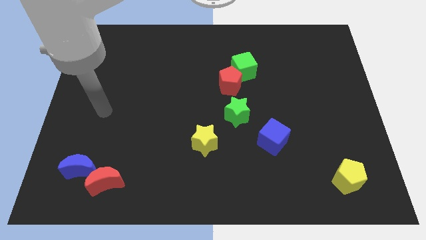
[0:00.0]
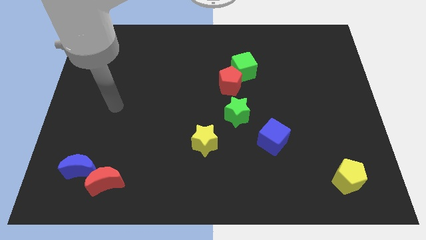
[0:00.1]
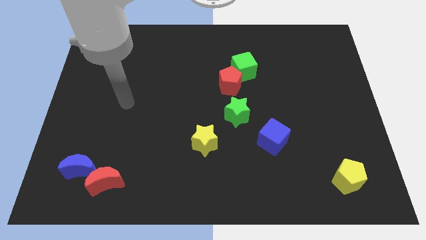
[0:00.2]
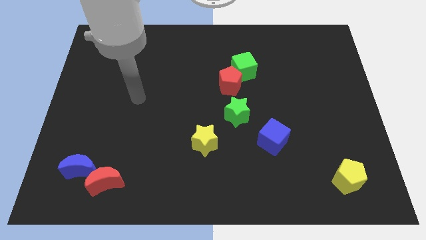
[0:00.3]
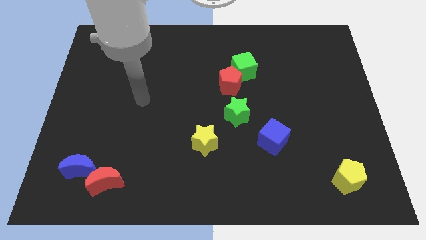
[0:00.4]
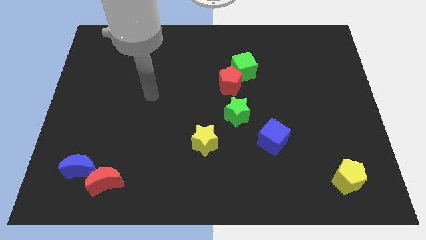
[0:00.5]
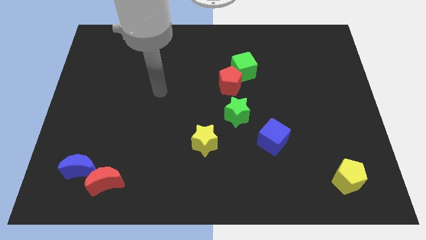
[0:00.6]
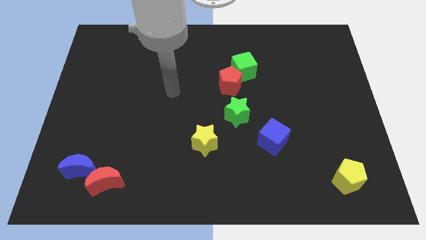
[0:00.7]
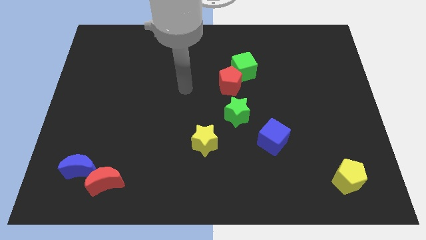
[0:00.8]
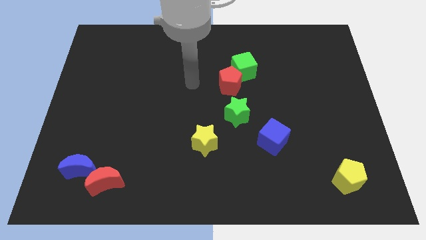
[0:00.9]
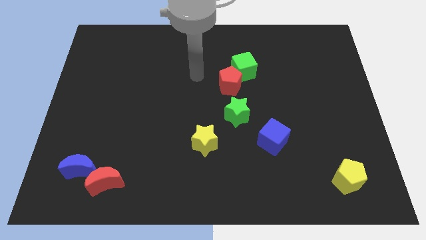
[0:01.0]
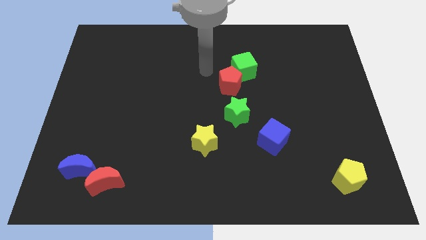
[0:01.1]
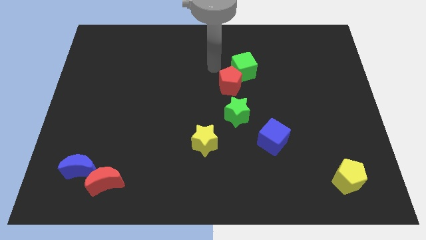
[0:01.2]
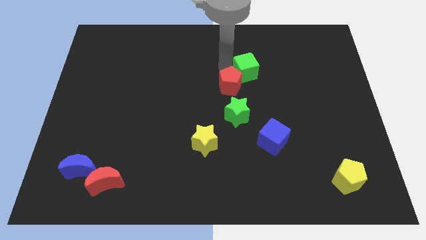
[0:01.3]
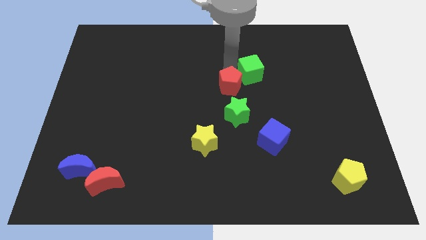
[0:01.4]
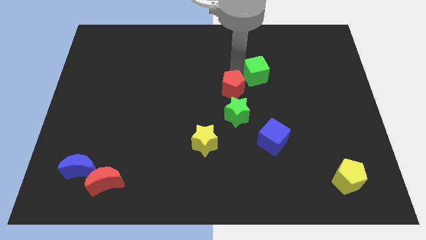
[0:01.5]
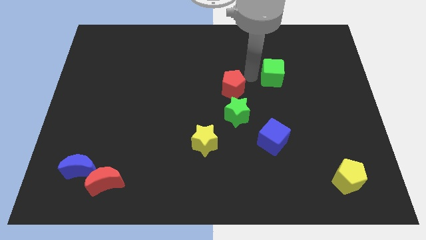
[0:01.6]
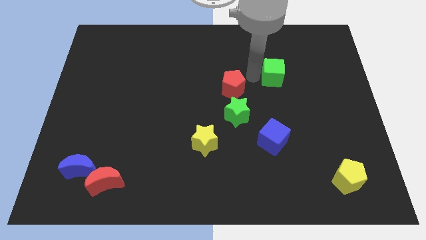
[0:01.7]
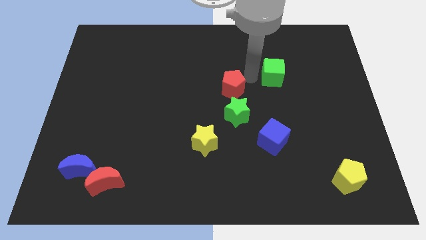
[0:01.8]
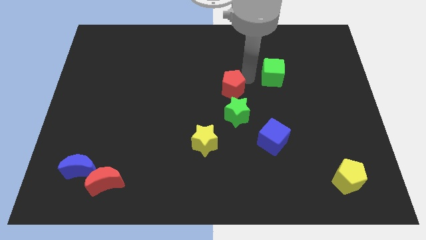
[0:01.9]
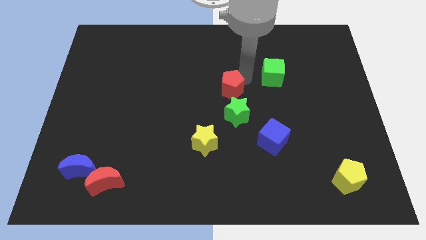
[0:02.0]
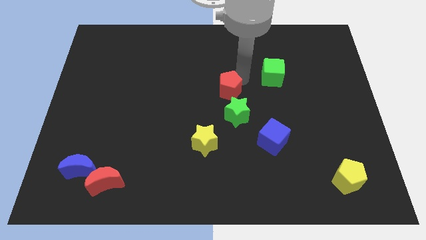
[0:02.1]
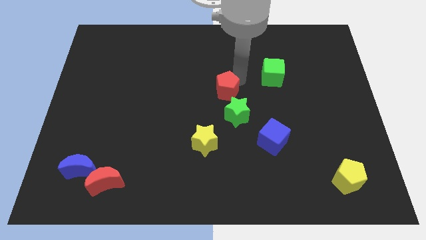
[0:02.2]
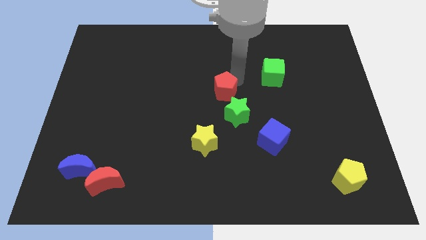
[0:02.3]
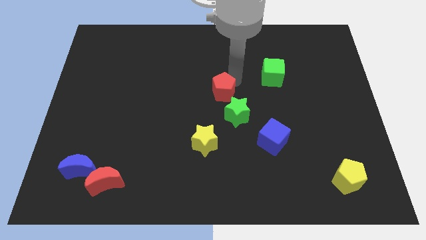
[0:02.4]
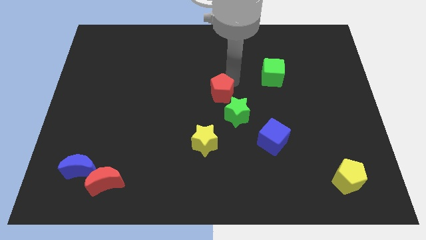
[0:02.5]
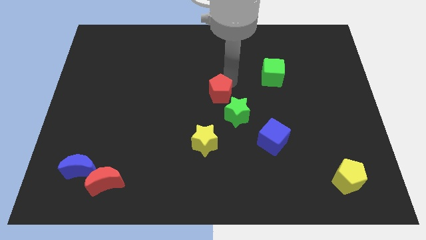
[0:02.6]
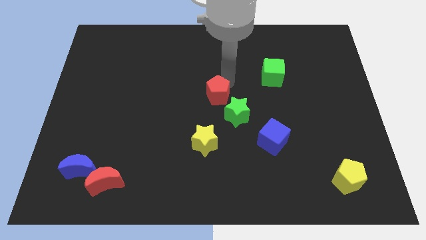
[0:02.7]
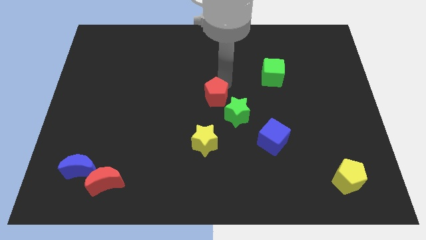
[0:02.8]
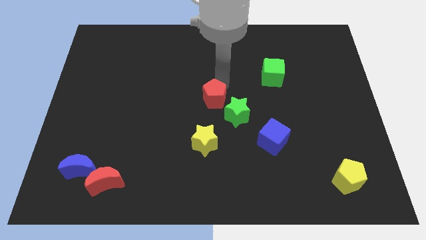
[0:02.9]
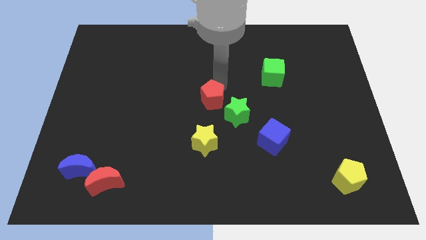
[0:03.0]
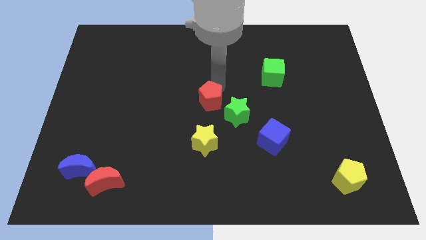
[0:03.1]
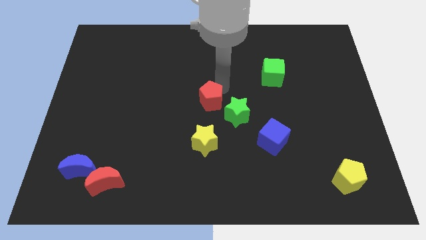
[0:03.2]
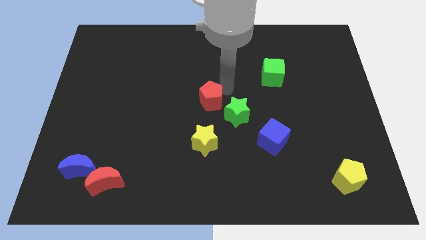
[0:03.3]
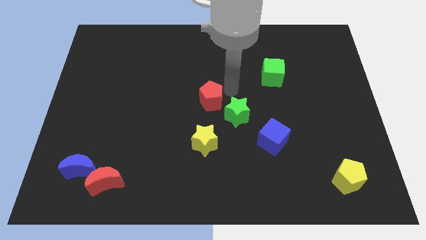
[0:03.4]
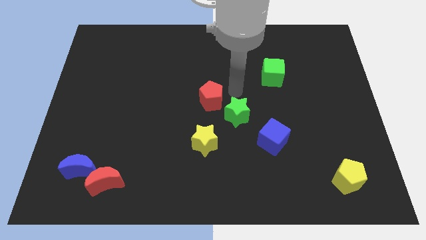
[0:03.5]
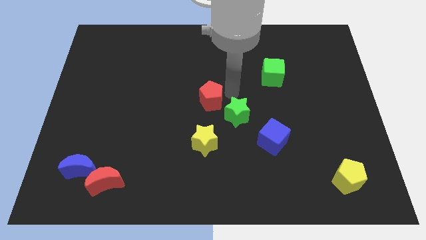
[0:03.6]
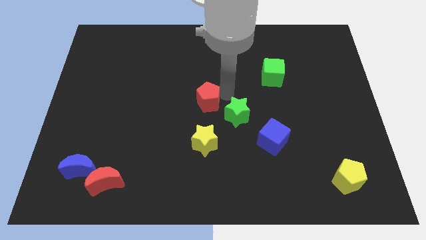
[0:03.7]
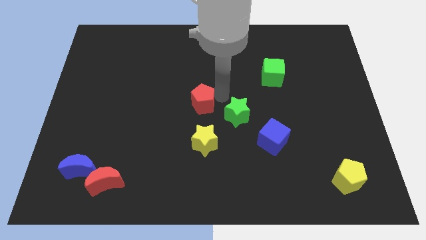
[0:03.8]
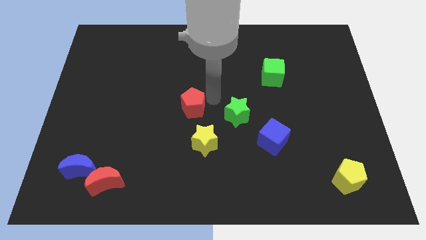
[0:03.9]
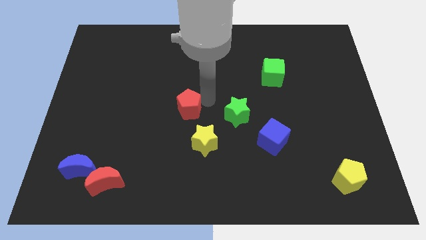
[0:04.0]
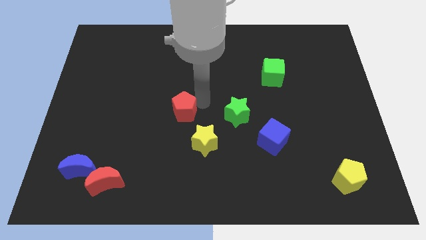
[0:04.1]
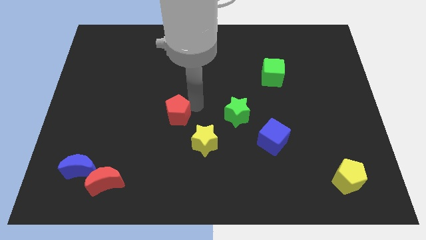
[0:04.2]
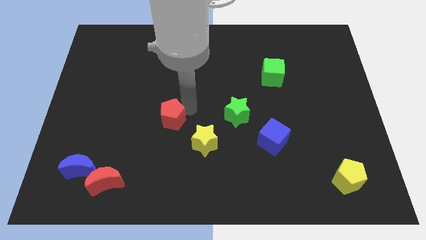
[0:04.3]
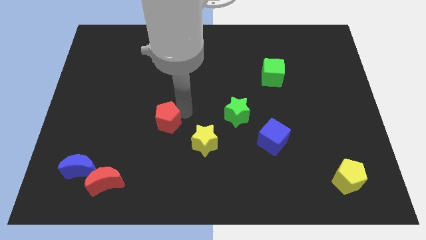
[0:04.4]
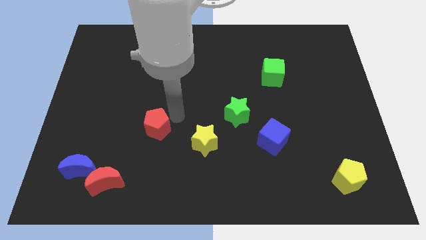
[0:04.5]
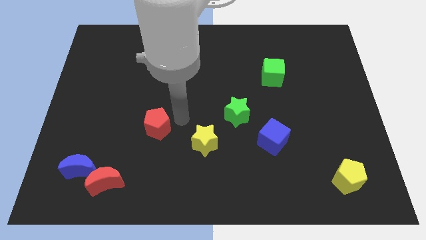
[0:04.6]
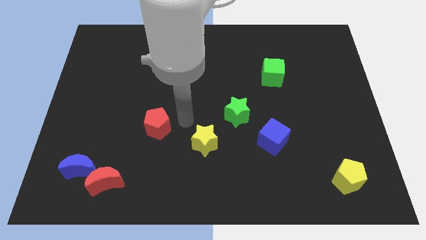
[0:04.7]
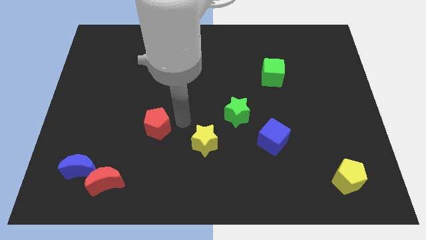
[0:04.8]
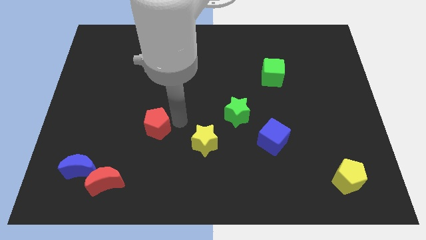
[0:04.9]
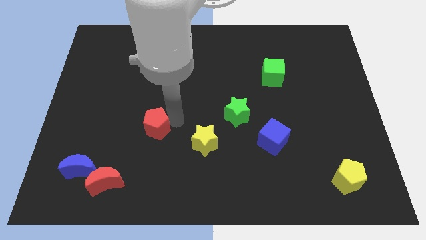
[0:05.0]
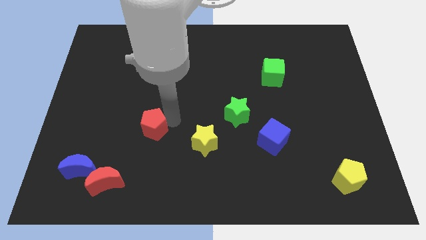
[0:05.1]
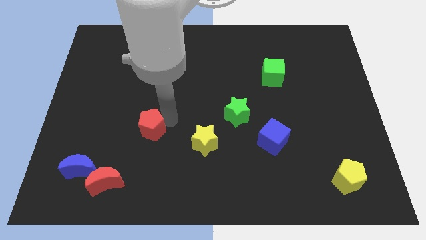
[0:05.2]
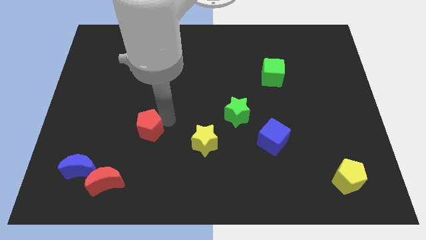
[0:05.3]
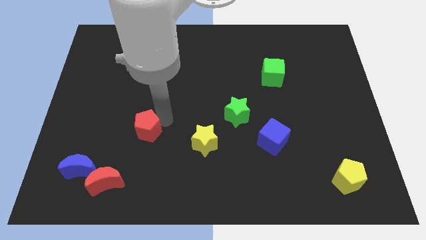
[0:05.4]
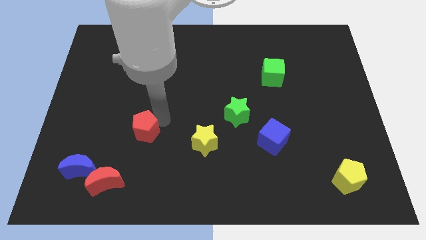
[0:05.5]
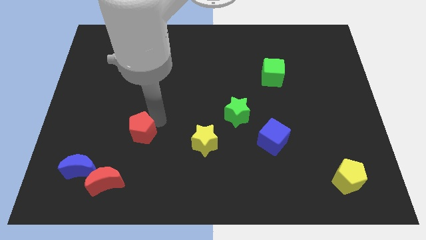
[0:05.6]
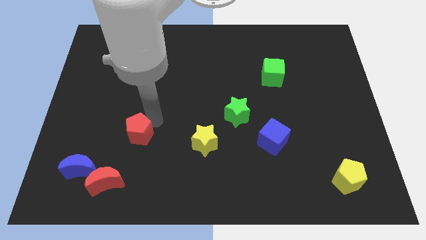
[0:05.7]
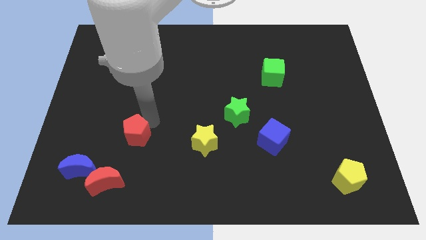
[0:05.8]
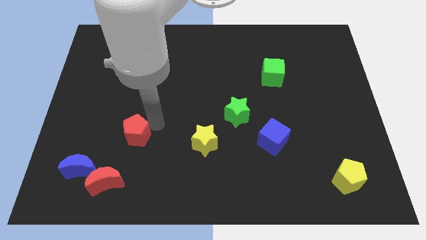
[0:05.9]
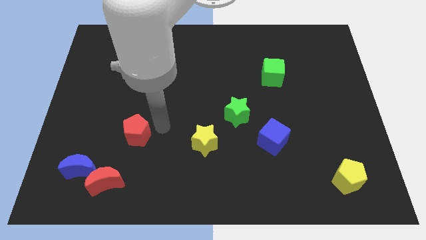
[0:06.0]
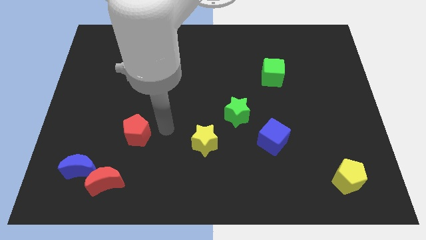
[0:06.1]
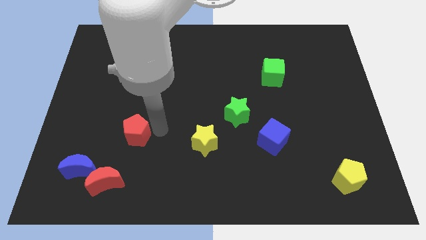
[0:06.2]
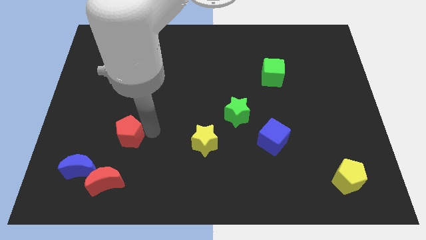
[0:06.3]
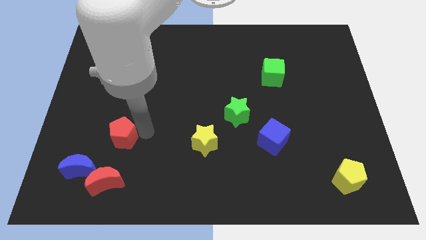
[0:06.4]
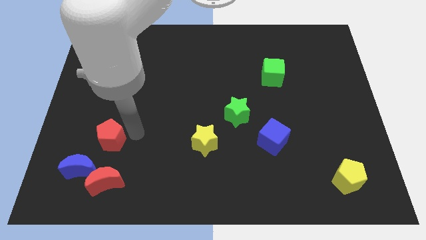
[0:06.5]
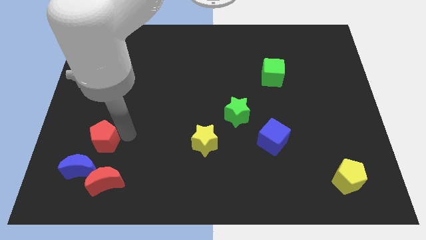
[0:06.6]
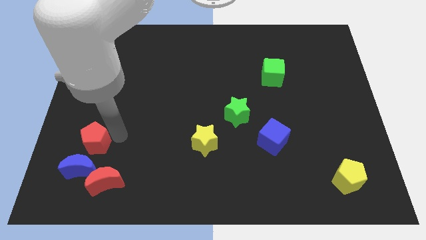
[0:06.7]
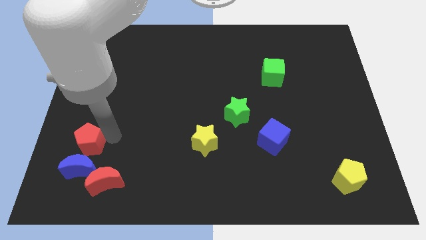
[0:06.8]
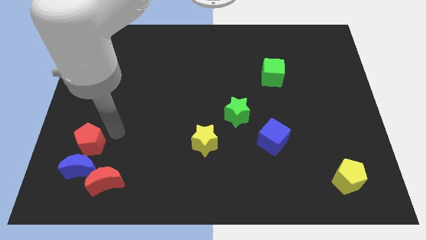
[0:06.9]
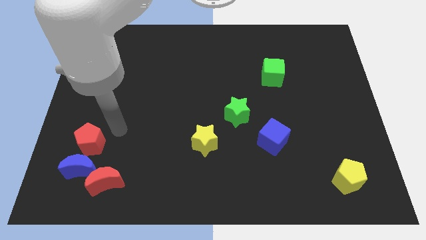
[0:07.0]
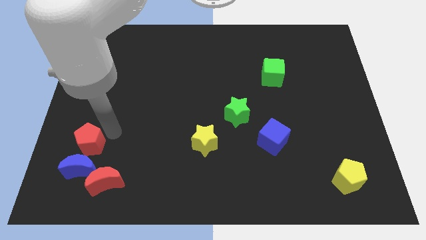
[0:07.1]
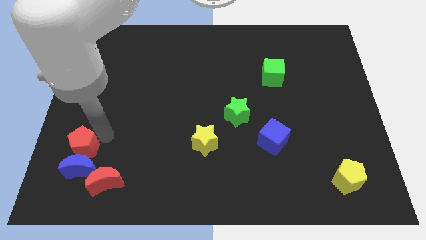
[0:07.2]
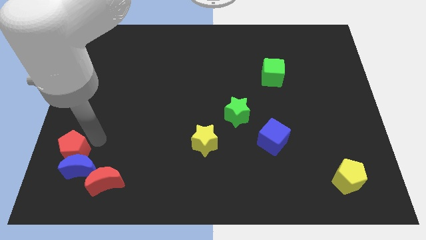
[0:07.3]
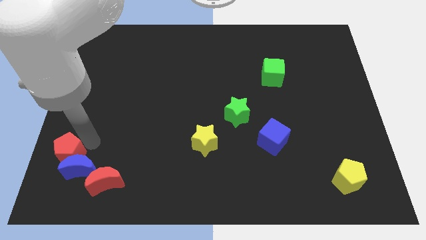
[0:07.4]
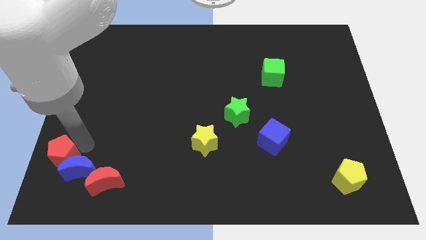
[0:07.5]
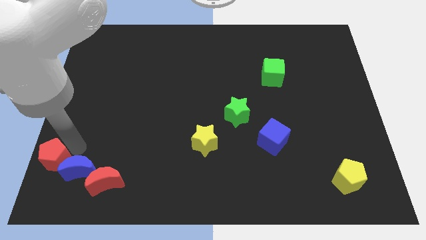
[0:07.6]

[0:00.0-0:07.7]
push the red pentagon to the bottom left of the board
